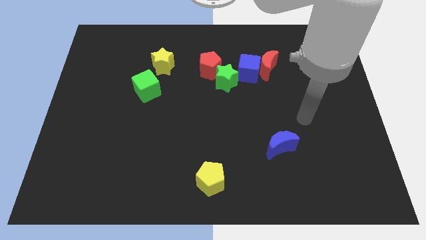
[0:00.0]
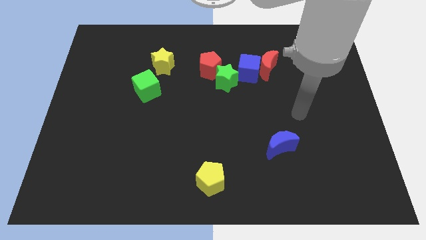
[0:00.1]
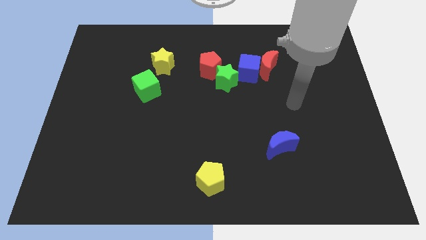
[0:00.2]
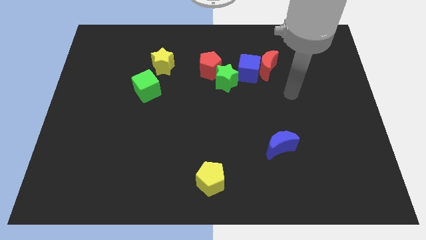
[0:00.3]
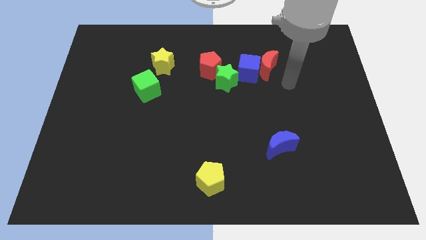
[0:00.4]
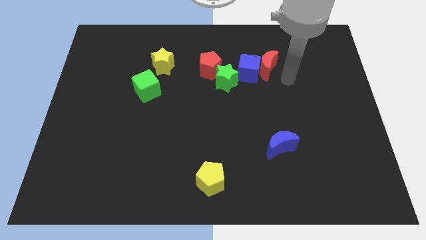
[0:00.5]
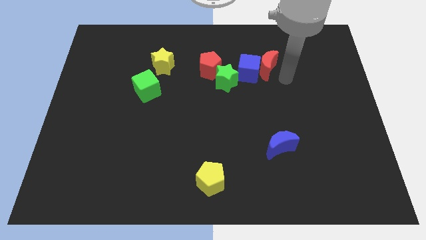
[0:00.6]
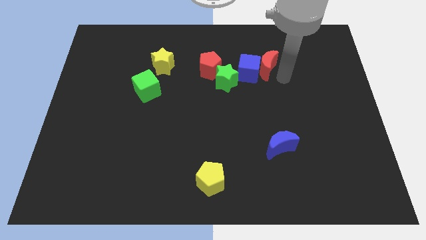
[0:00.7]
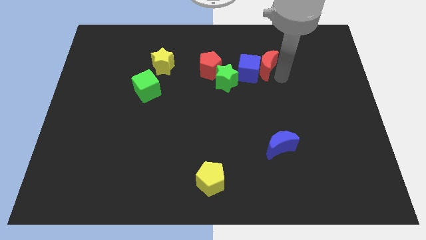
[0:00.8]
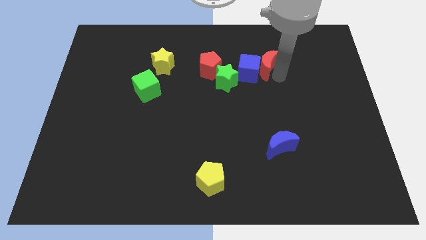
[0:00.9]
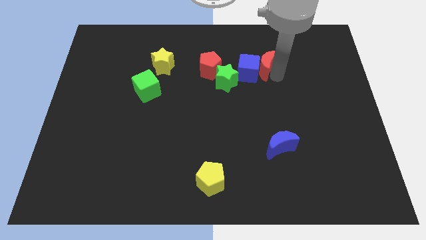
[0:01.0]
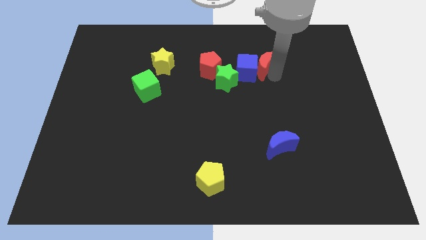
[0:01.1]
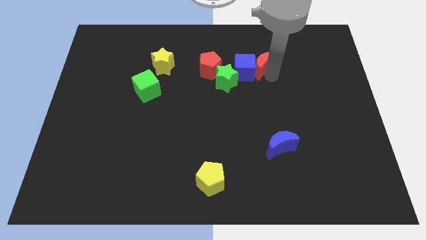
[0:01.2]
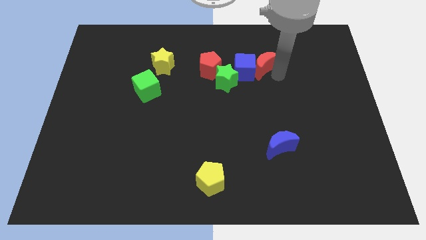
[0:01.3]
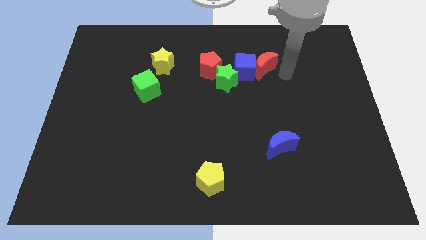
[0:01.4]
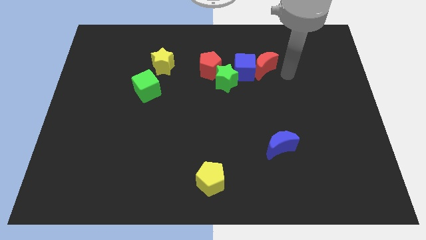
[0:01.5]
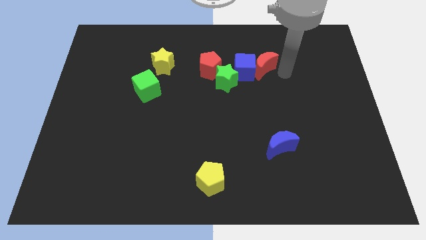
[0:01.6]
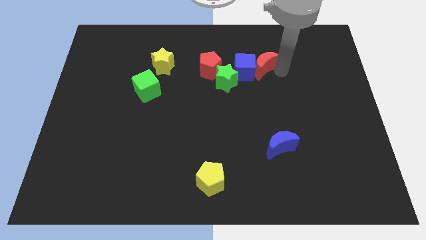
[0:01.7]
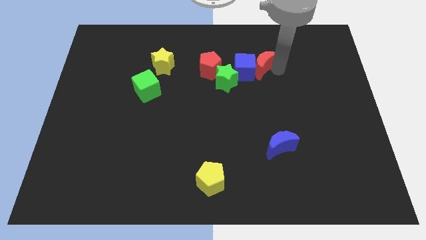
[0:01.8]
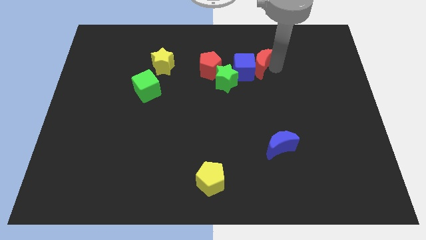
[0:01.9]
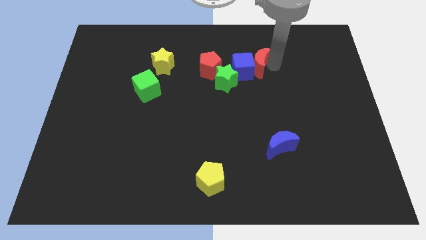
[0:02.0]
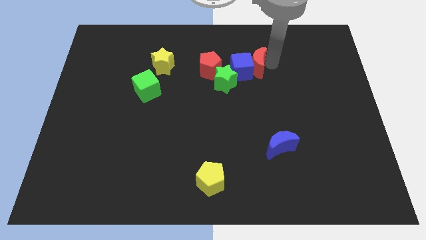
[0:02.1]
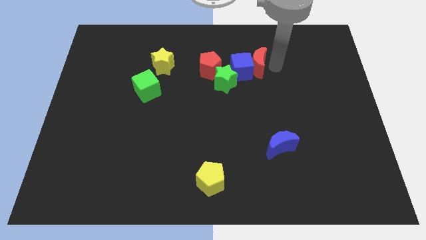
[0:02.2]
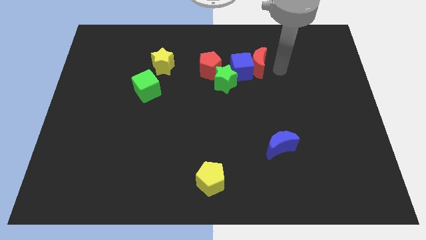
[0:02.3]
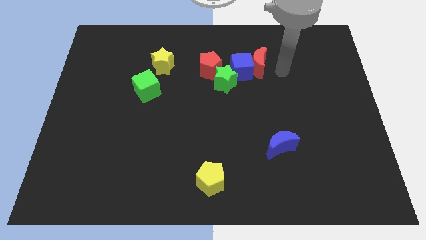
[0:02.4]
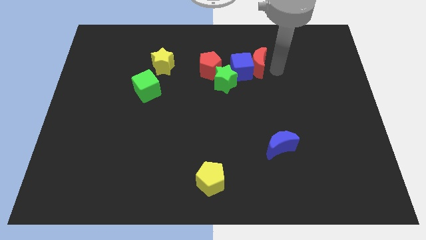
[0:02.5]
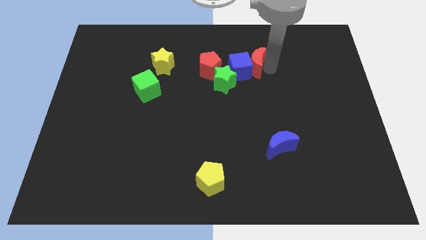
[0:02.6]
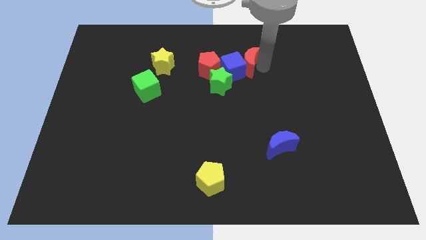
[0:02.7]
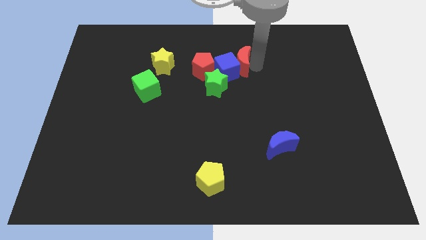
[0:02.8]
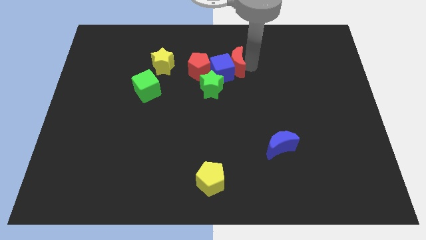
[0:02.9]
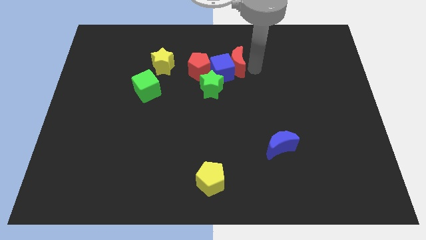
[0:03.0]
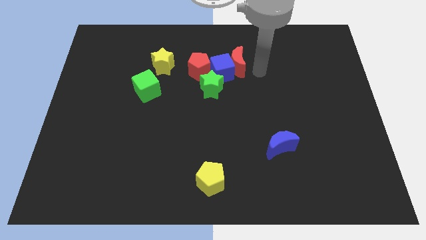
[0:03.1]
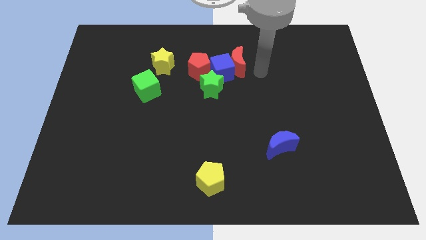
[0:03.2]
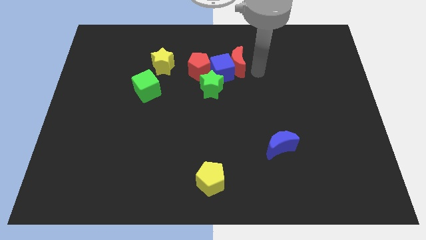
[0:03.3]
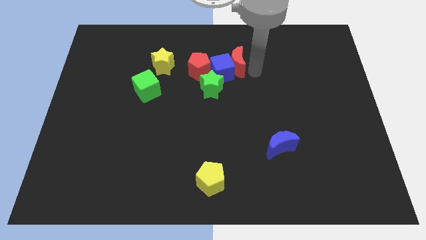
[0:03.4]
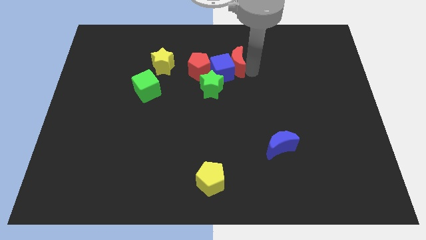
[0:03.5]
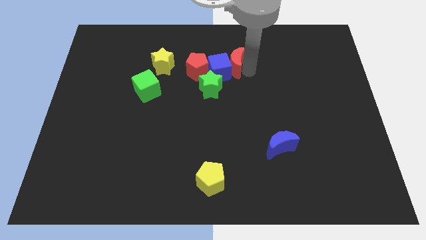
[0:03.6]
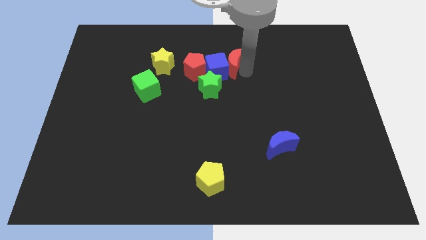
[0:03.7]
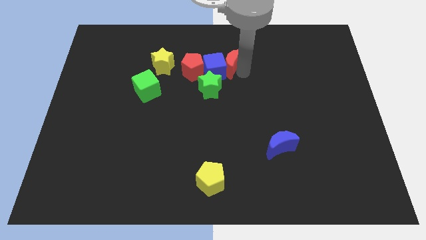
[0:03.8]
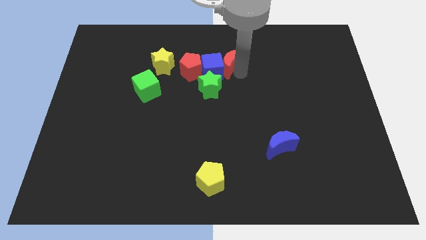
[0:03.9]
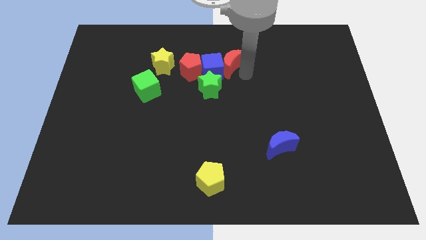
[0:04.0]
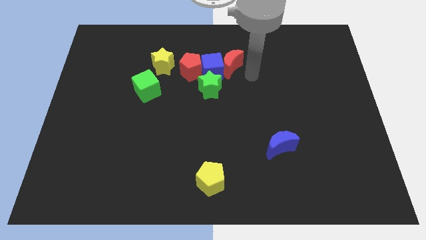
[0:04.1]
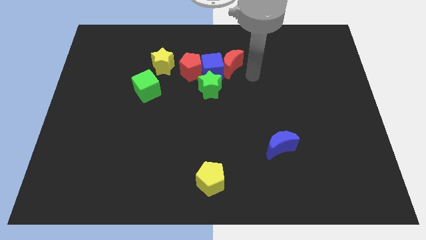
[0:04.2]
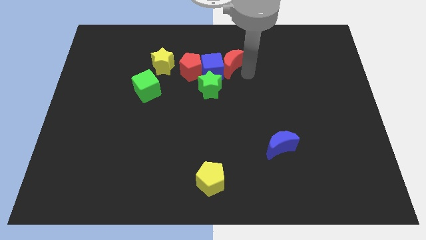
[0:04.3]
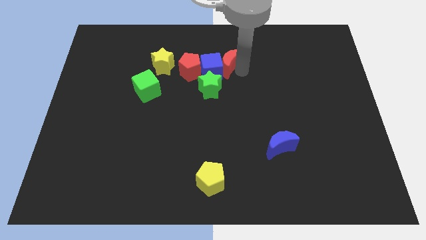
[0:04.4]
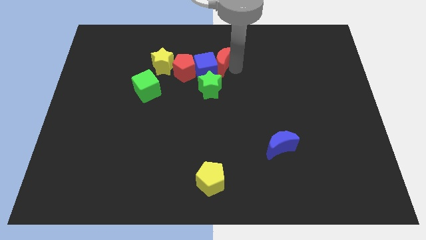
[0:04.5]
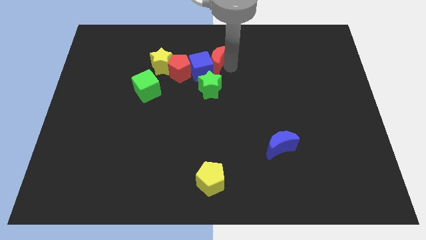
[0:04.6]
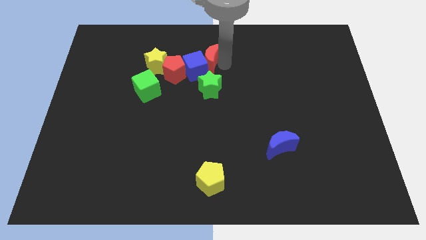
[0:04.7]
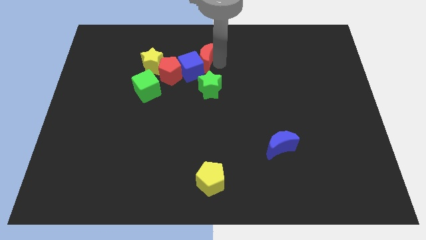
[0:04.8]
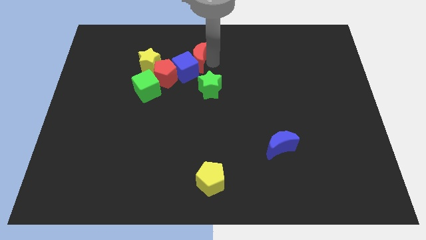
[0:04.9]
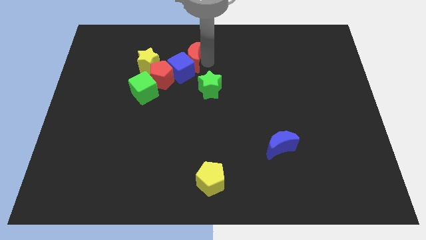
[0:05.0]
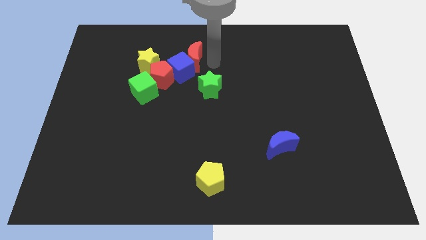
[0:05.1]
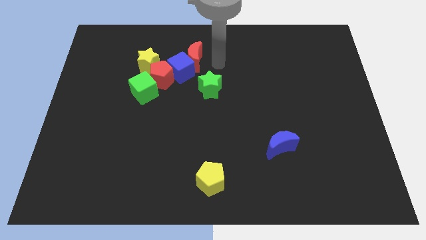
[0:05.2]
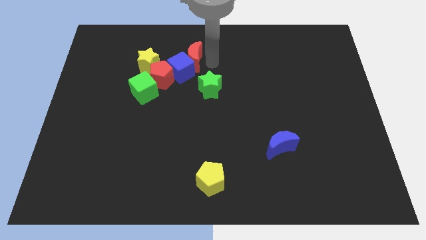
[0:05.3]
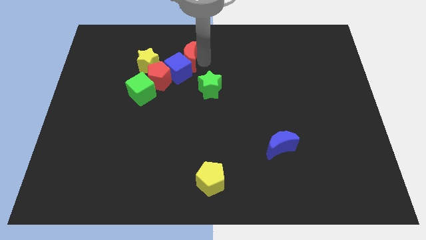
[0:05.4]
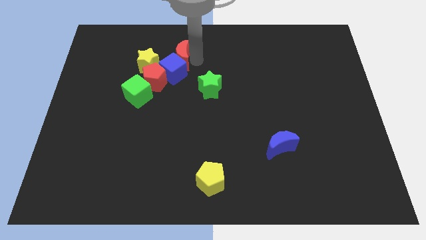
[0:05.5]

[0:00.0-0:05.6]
push the red moon left

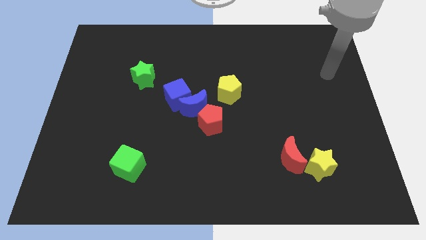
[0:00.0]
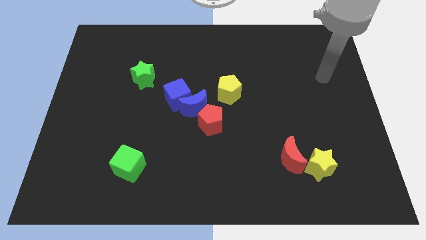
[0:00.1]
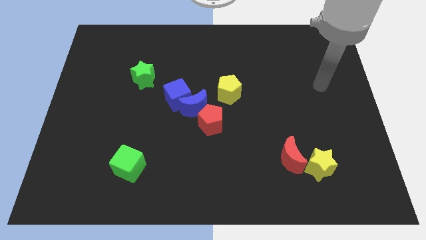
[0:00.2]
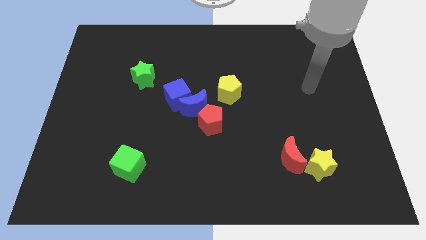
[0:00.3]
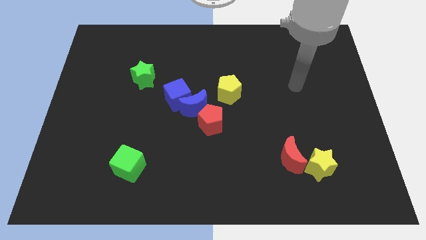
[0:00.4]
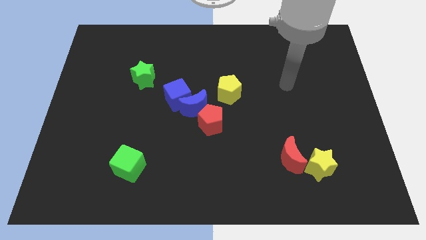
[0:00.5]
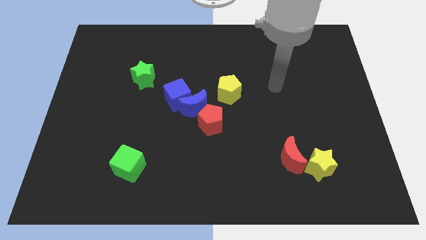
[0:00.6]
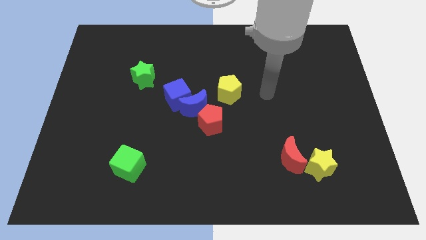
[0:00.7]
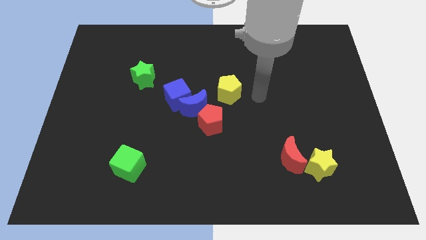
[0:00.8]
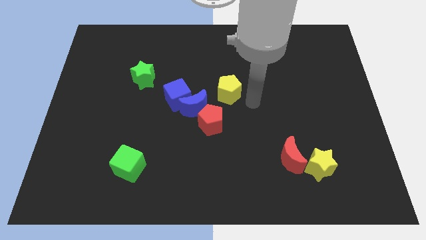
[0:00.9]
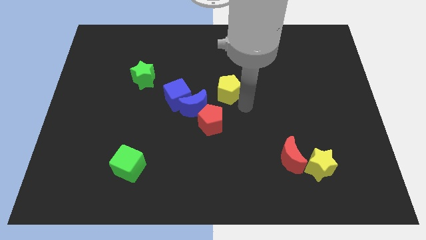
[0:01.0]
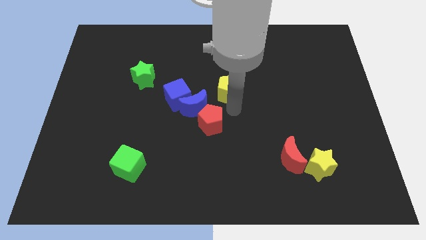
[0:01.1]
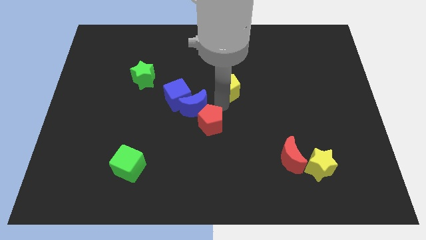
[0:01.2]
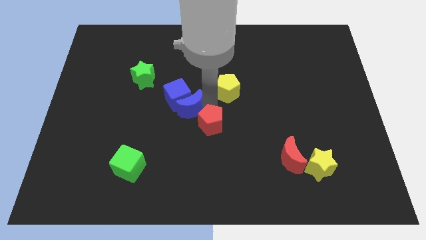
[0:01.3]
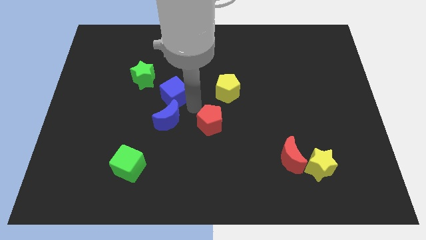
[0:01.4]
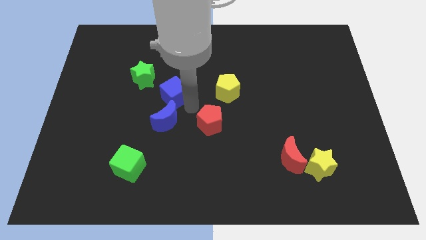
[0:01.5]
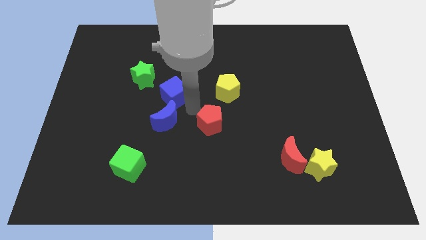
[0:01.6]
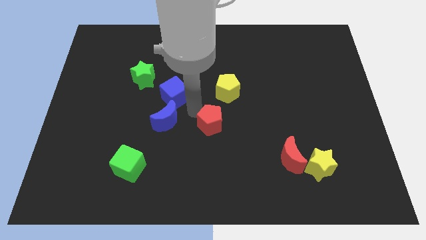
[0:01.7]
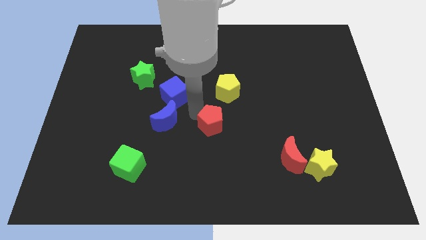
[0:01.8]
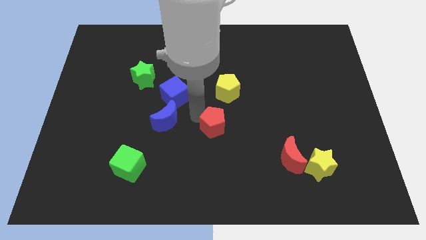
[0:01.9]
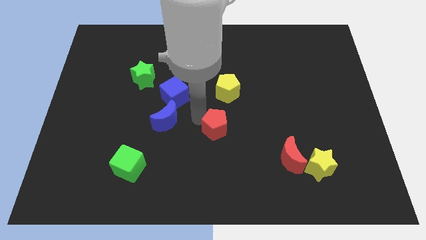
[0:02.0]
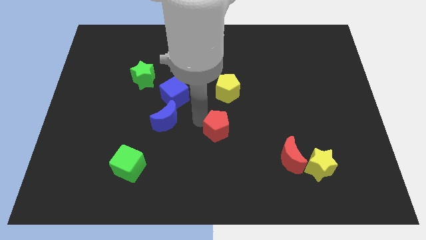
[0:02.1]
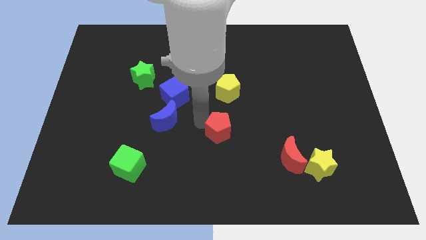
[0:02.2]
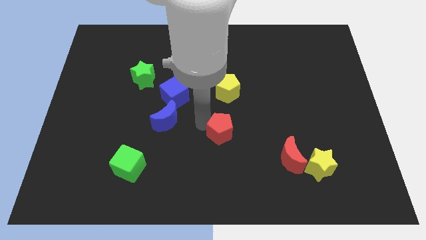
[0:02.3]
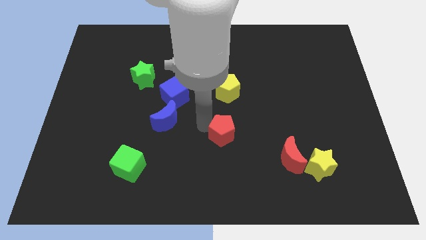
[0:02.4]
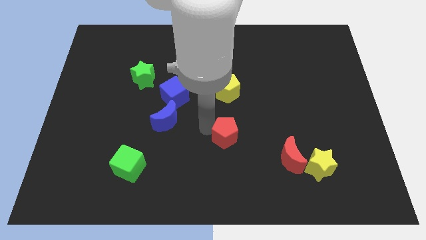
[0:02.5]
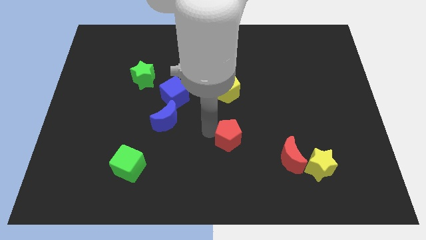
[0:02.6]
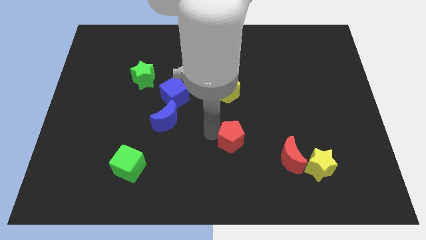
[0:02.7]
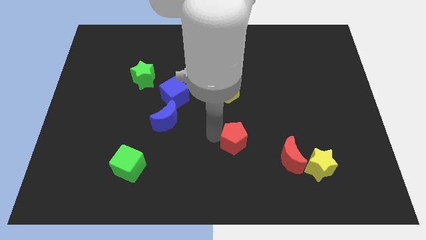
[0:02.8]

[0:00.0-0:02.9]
slide the red pentagon a bit down and right diagonally

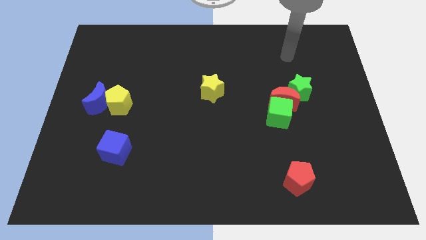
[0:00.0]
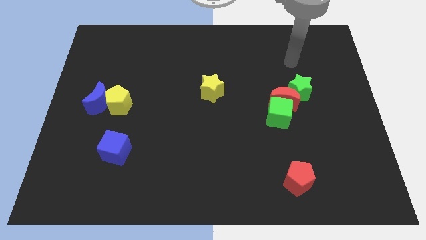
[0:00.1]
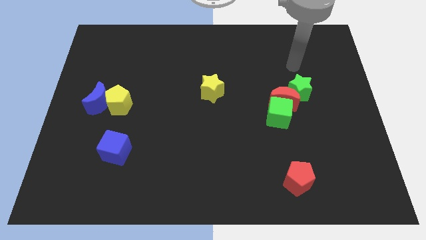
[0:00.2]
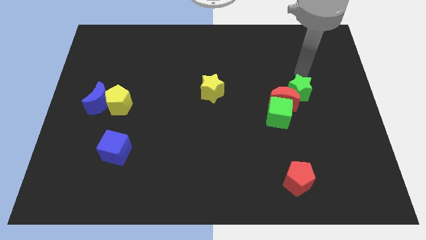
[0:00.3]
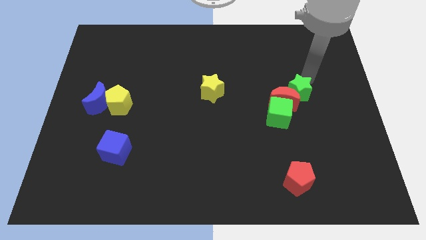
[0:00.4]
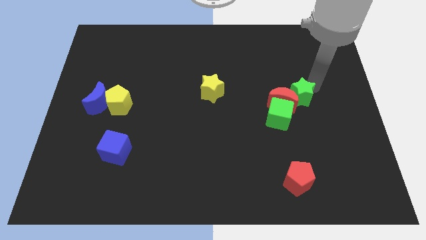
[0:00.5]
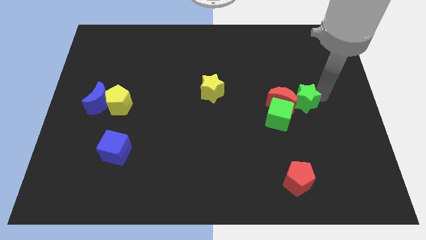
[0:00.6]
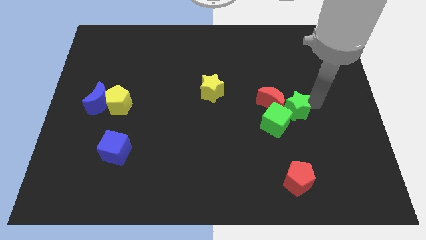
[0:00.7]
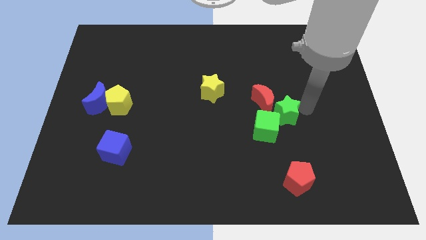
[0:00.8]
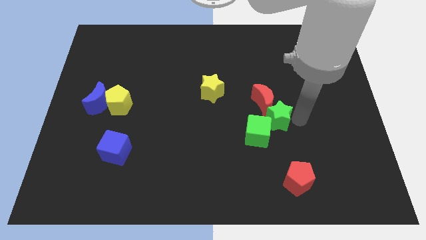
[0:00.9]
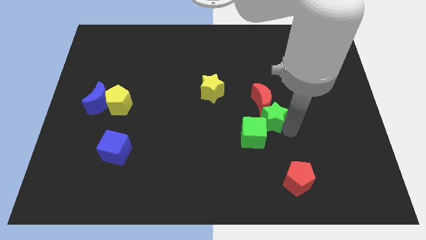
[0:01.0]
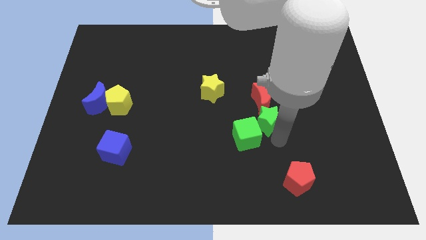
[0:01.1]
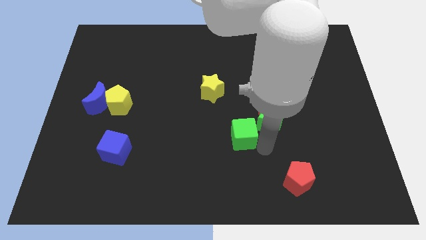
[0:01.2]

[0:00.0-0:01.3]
slightly move the green cube to the left
